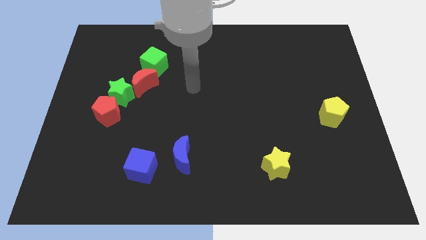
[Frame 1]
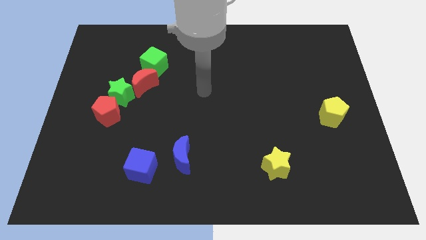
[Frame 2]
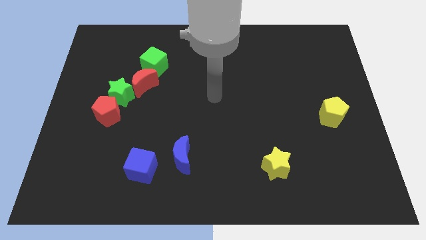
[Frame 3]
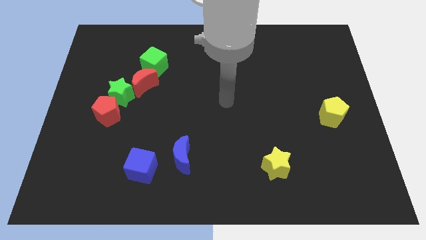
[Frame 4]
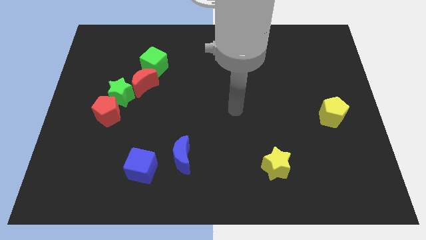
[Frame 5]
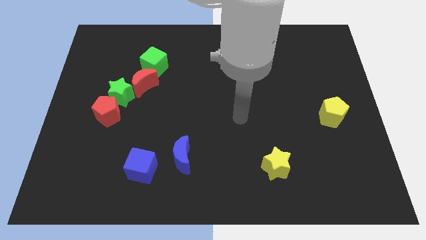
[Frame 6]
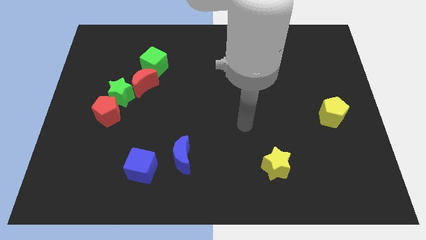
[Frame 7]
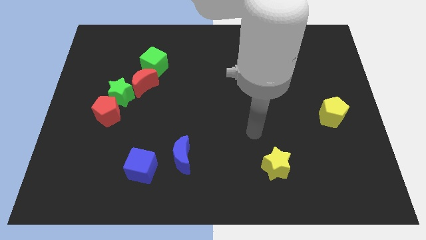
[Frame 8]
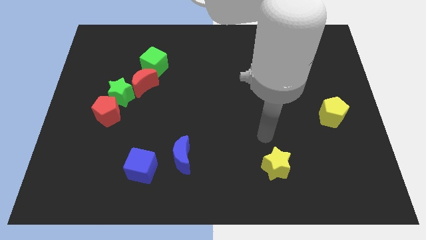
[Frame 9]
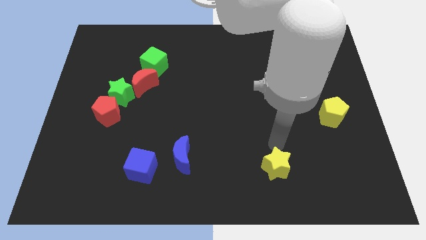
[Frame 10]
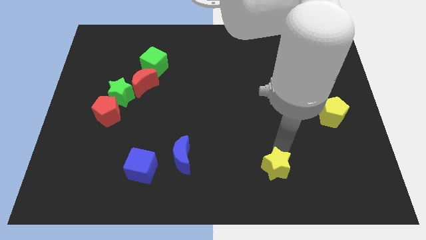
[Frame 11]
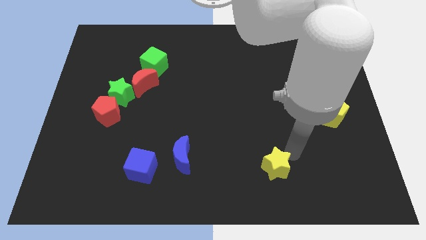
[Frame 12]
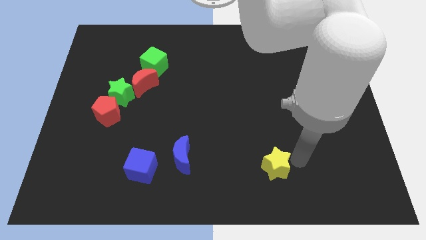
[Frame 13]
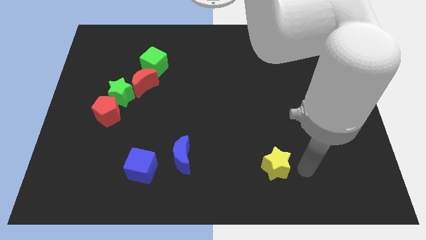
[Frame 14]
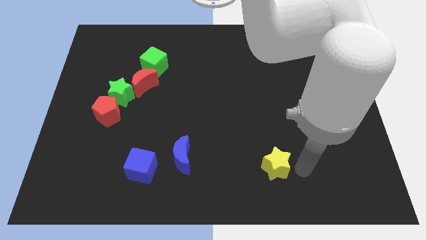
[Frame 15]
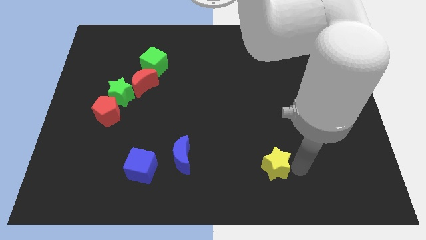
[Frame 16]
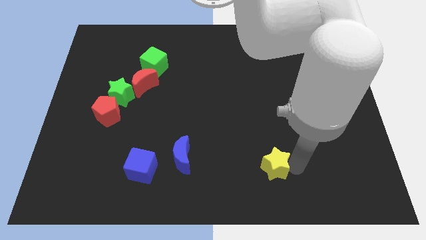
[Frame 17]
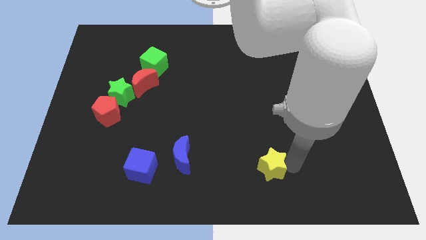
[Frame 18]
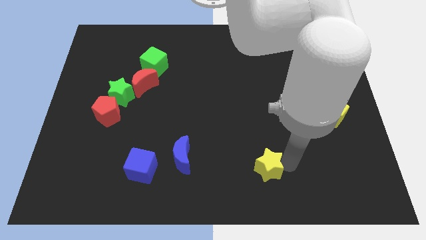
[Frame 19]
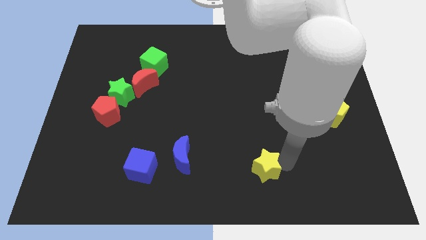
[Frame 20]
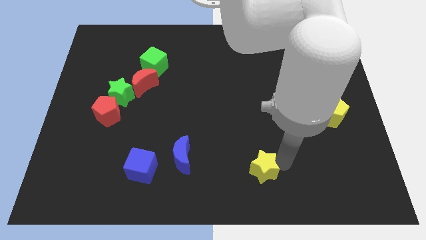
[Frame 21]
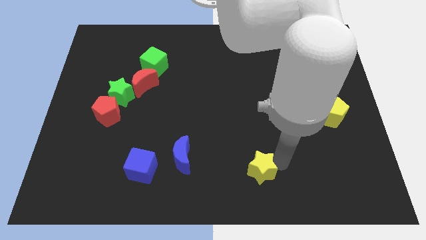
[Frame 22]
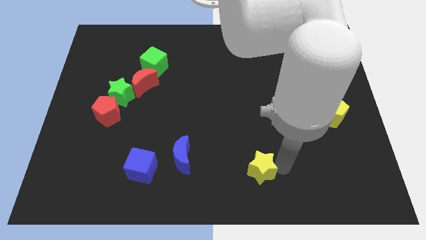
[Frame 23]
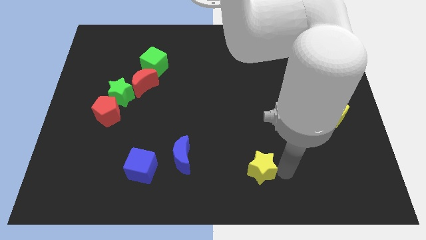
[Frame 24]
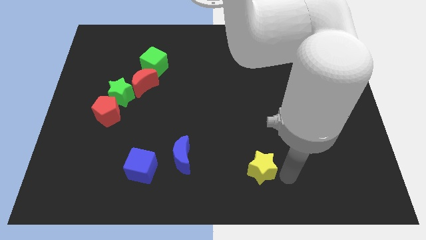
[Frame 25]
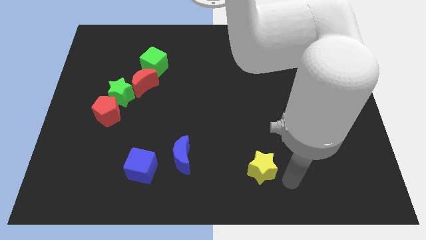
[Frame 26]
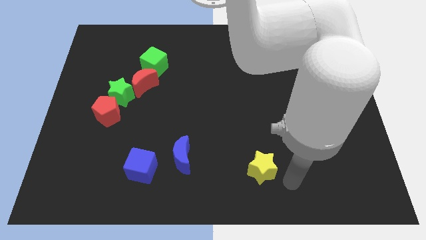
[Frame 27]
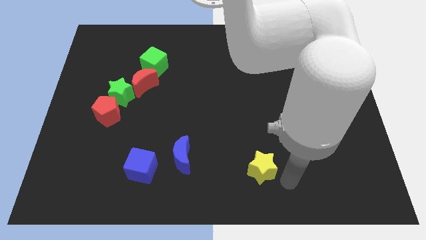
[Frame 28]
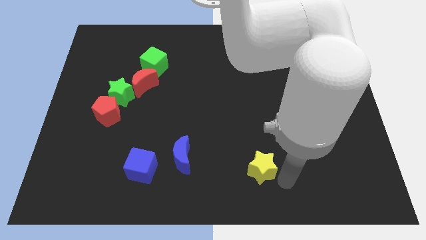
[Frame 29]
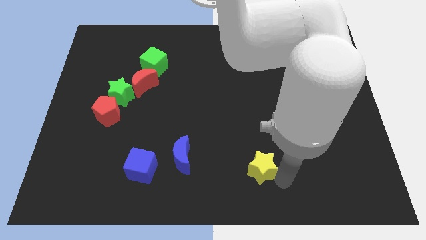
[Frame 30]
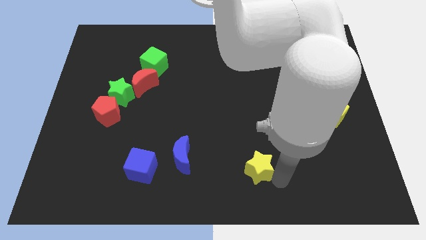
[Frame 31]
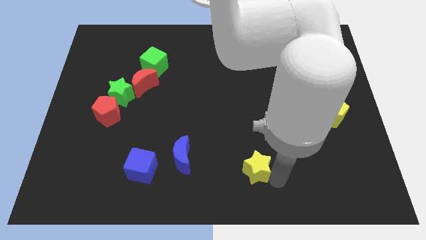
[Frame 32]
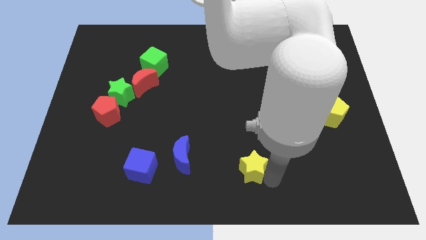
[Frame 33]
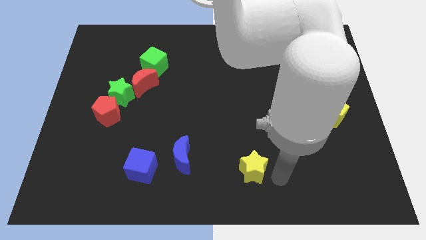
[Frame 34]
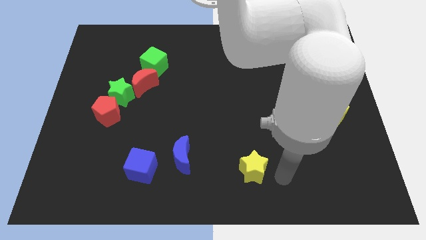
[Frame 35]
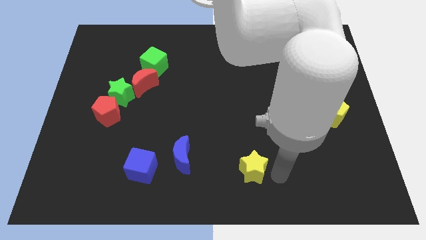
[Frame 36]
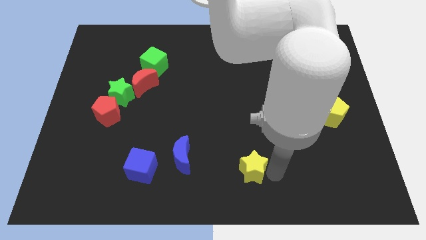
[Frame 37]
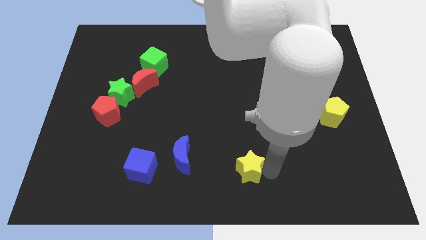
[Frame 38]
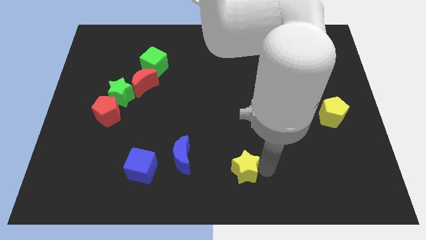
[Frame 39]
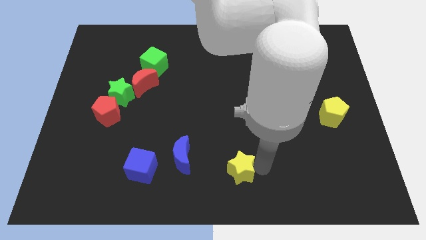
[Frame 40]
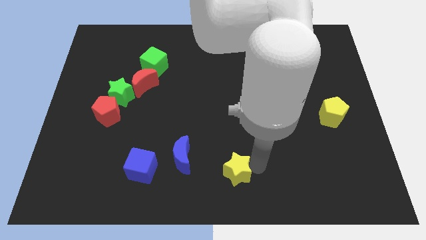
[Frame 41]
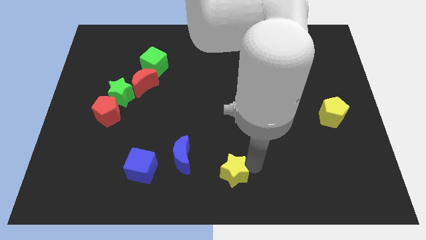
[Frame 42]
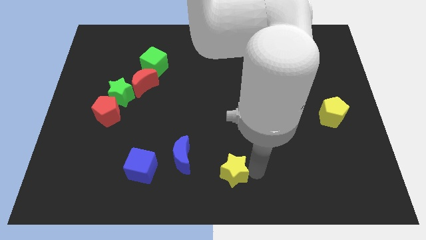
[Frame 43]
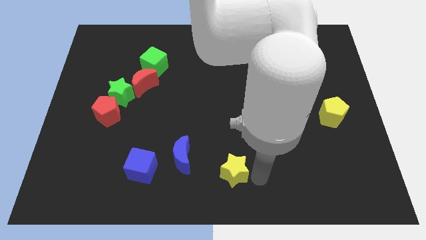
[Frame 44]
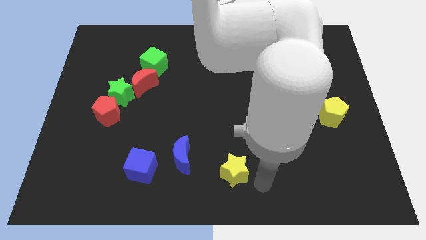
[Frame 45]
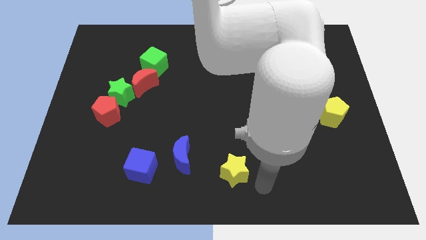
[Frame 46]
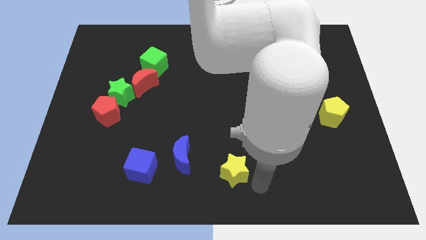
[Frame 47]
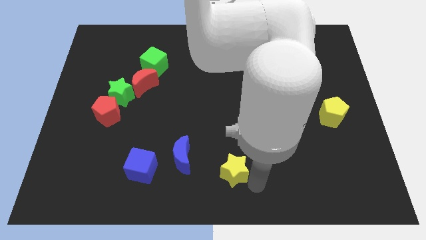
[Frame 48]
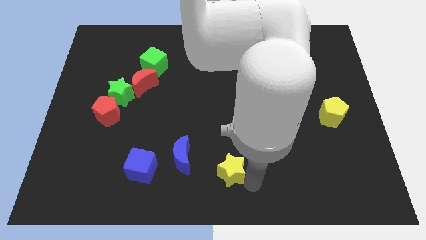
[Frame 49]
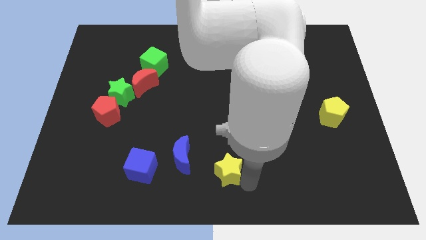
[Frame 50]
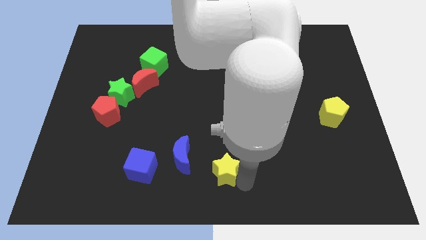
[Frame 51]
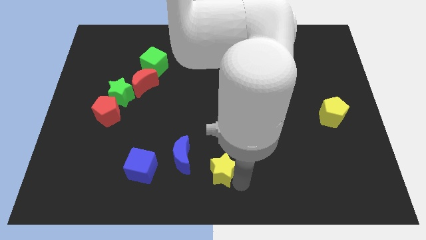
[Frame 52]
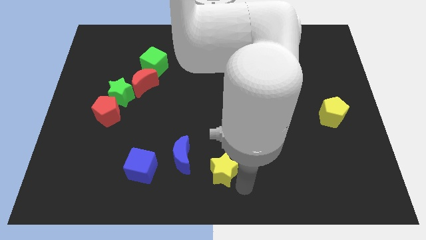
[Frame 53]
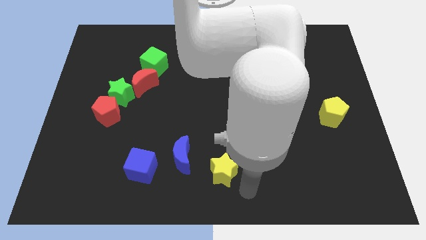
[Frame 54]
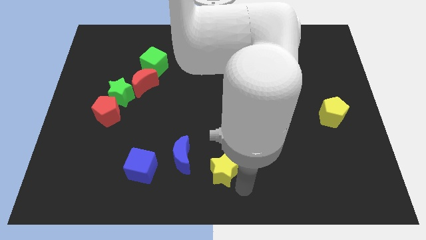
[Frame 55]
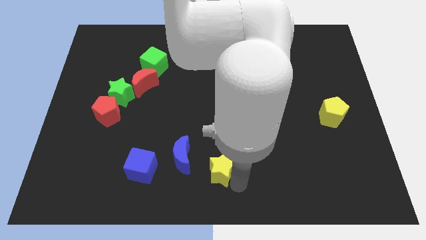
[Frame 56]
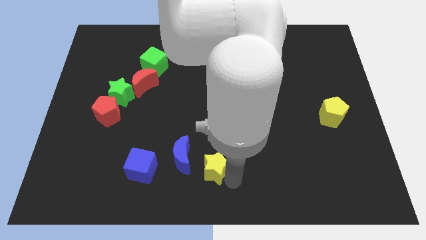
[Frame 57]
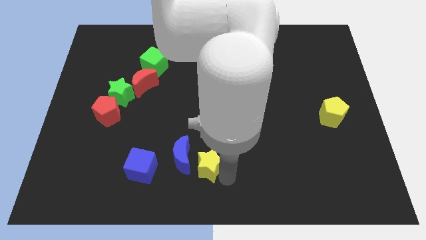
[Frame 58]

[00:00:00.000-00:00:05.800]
put the yellow star next to the blue moon
